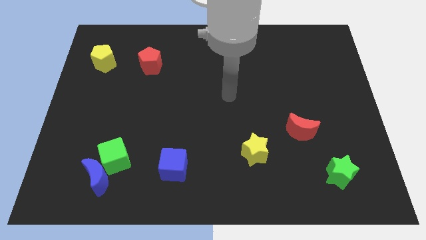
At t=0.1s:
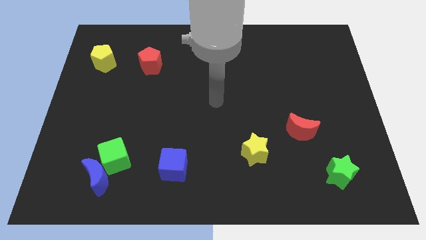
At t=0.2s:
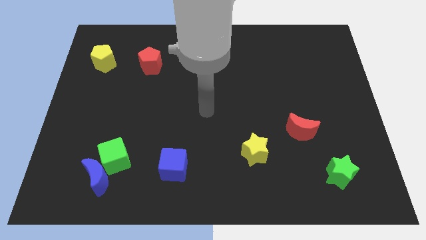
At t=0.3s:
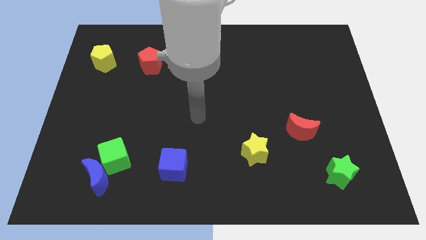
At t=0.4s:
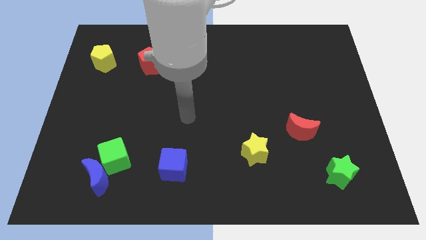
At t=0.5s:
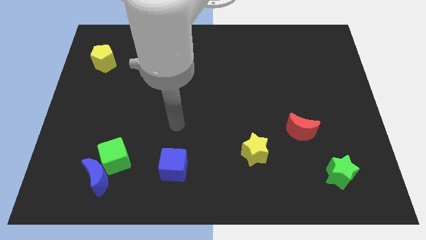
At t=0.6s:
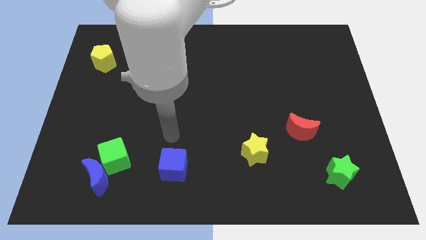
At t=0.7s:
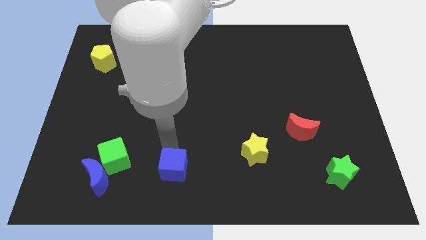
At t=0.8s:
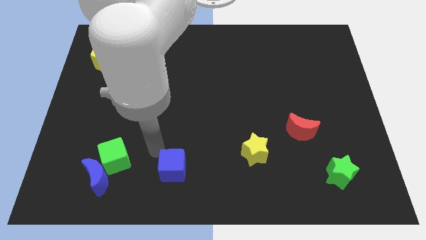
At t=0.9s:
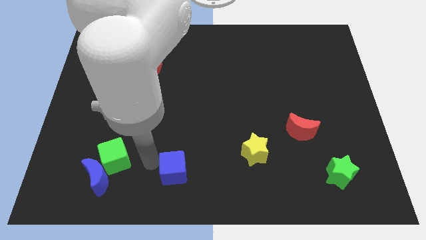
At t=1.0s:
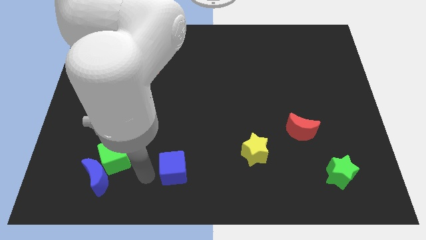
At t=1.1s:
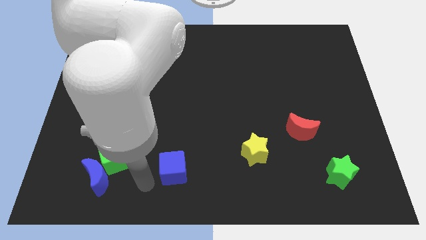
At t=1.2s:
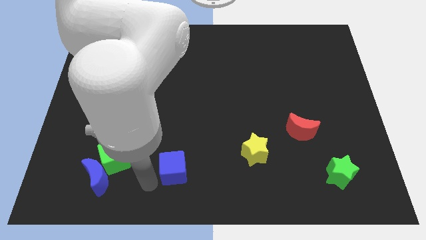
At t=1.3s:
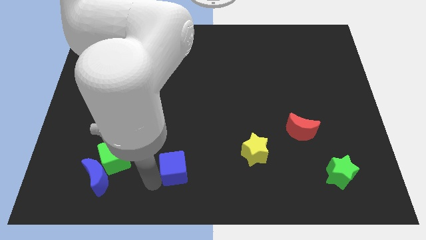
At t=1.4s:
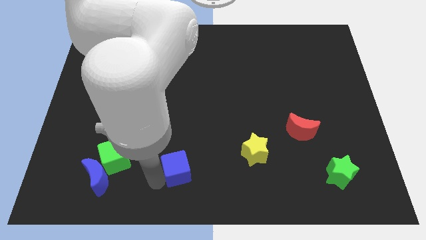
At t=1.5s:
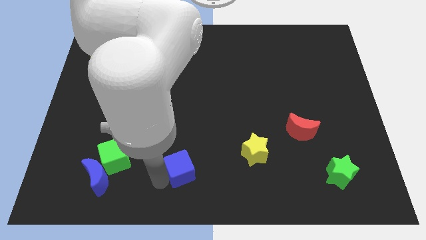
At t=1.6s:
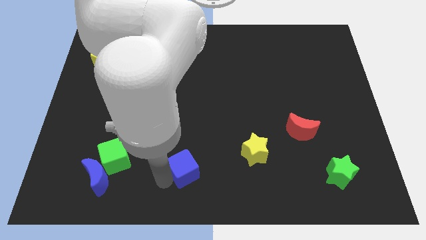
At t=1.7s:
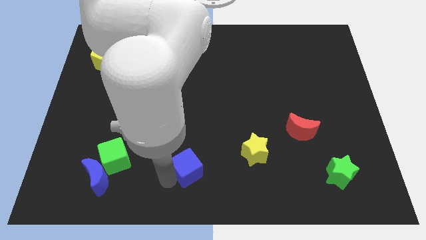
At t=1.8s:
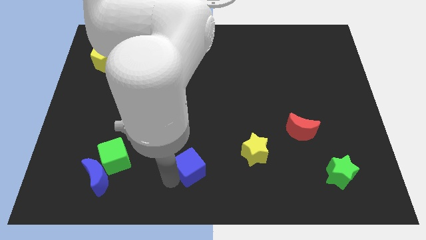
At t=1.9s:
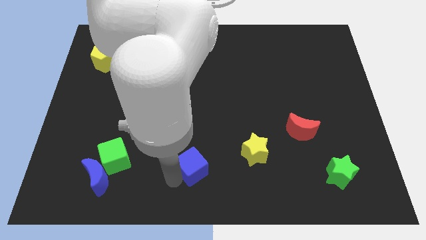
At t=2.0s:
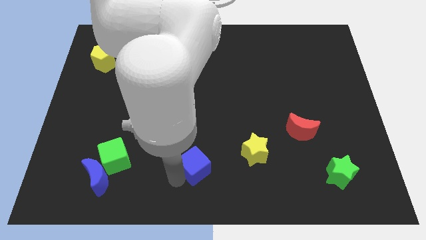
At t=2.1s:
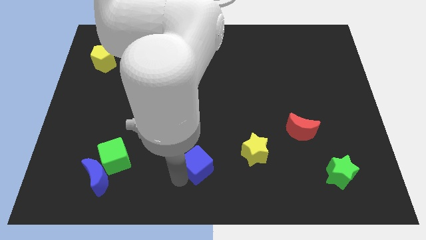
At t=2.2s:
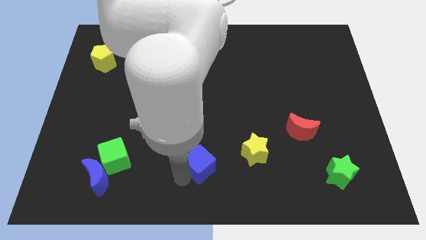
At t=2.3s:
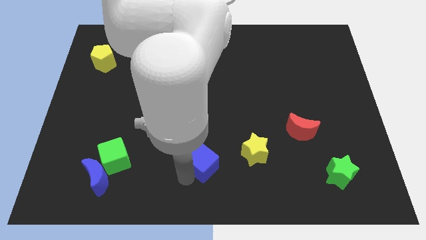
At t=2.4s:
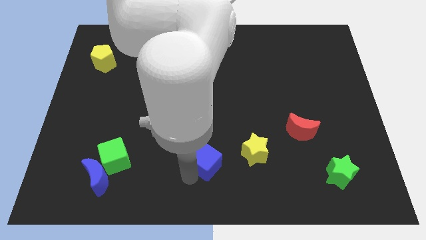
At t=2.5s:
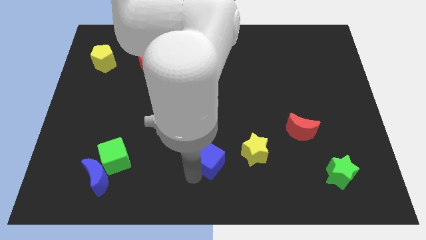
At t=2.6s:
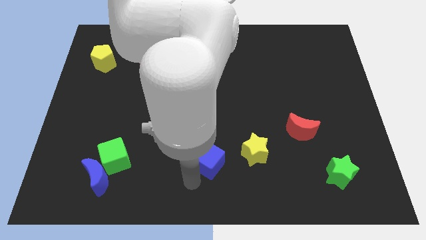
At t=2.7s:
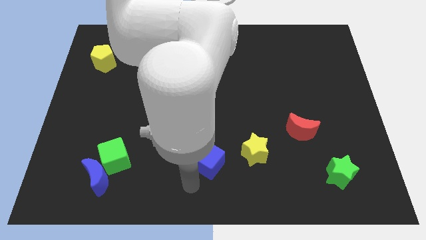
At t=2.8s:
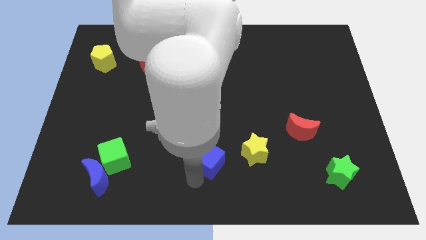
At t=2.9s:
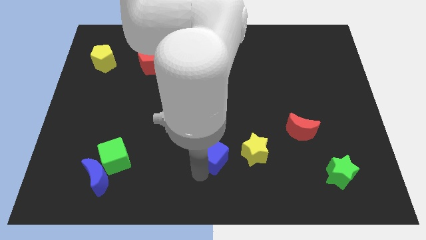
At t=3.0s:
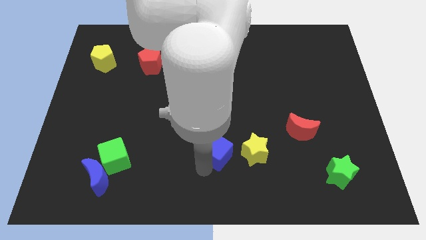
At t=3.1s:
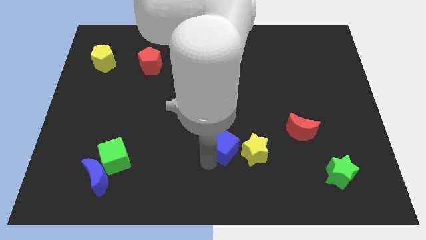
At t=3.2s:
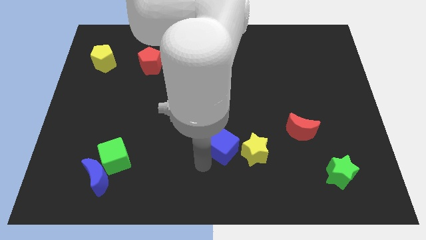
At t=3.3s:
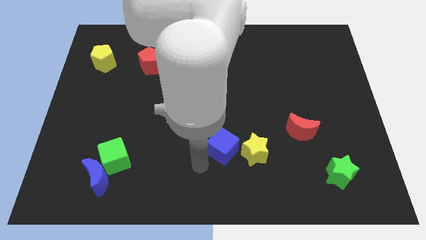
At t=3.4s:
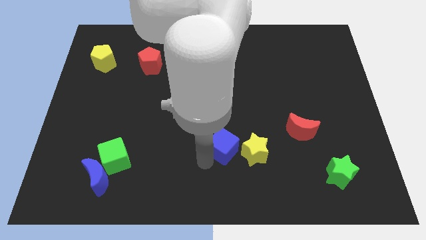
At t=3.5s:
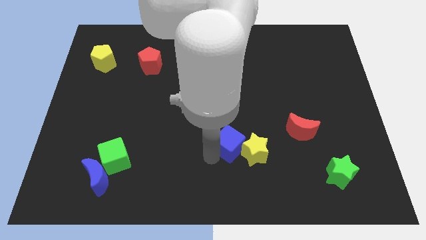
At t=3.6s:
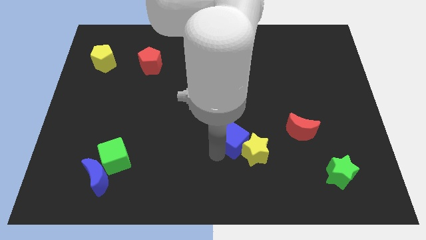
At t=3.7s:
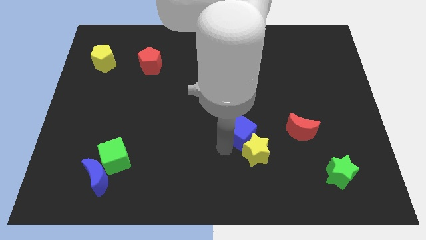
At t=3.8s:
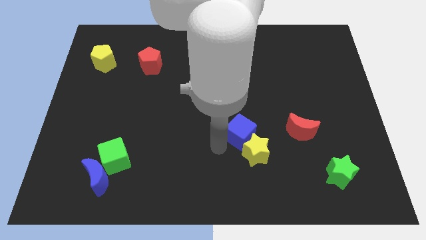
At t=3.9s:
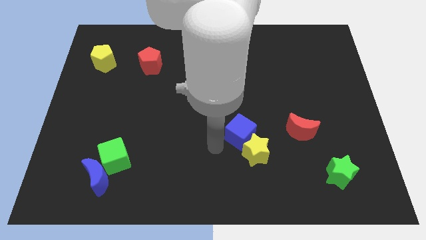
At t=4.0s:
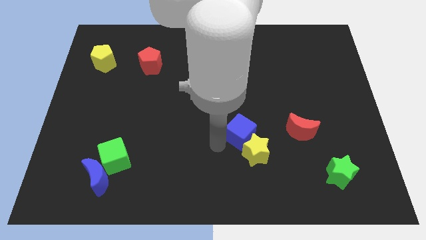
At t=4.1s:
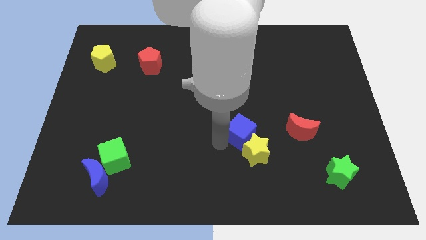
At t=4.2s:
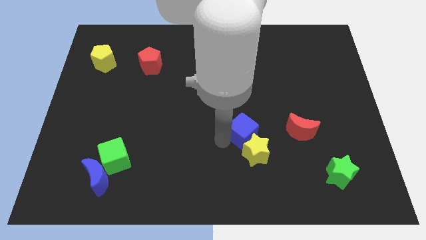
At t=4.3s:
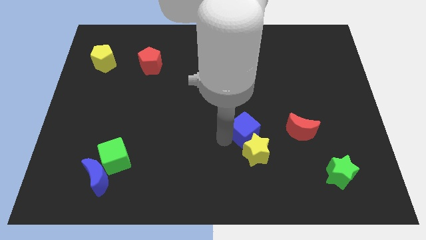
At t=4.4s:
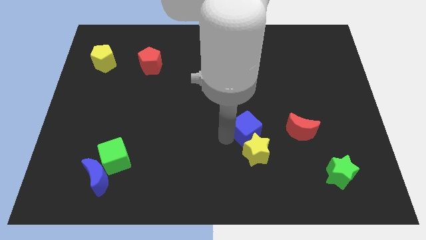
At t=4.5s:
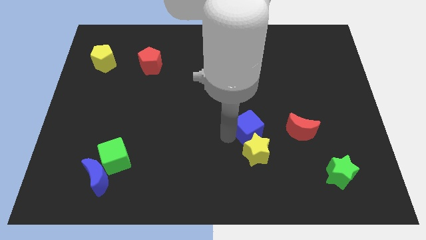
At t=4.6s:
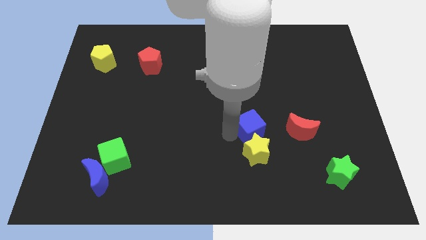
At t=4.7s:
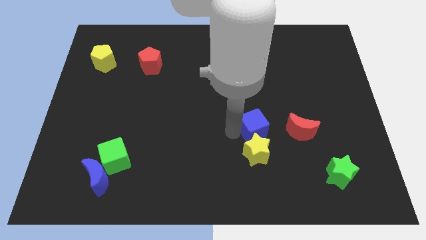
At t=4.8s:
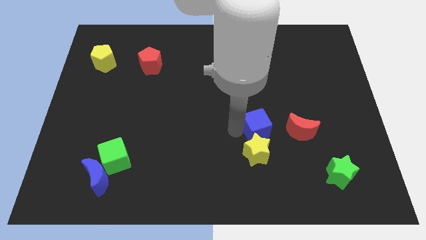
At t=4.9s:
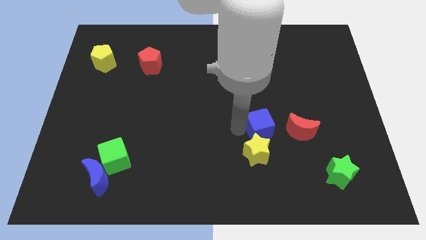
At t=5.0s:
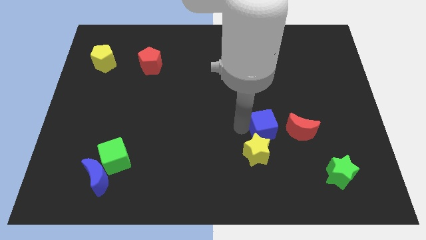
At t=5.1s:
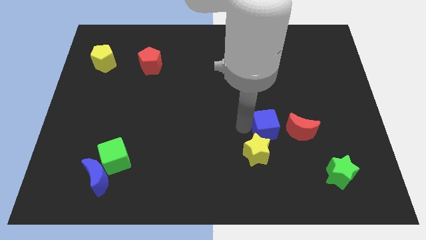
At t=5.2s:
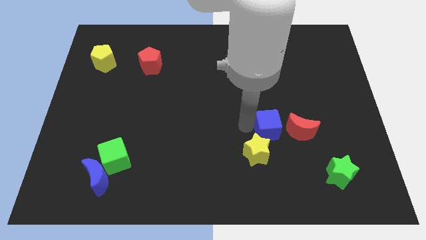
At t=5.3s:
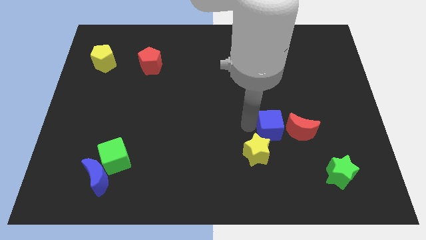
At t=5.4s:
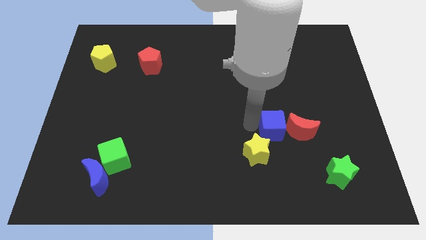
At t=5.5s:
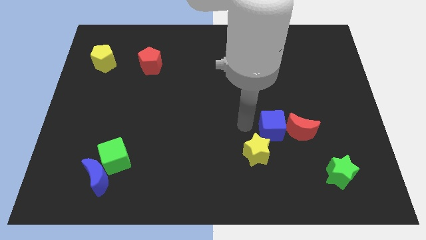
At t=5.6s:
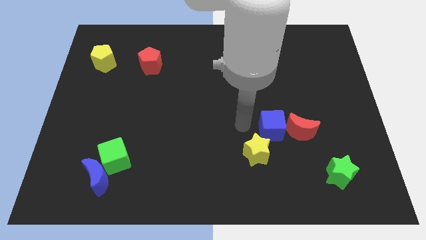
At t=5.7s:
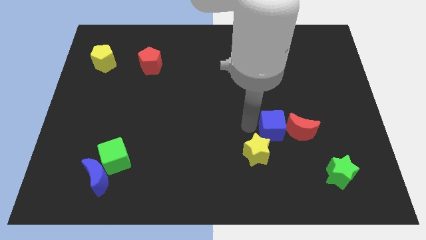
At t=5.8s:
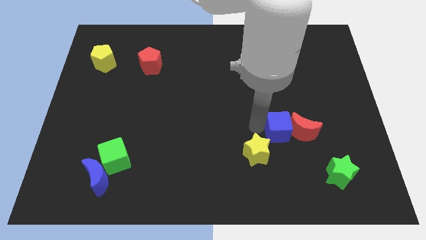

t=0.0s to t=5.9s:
move the blue cube next to the red moon

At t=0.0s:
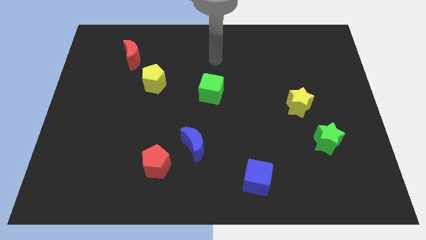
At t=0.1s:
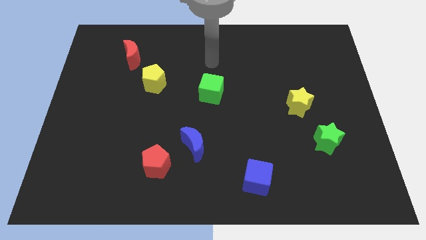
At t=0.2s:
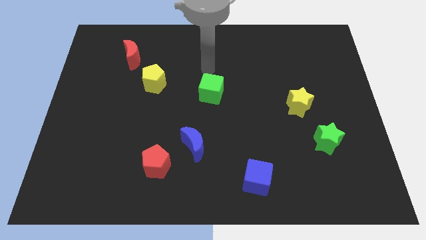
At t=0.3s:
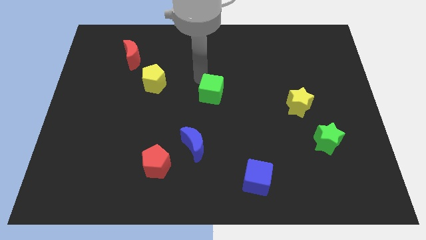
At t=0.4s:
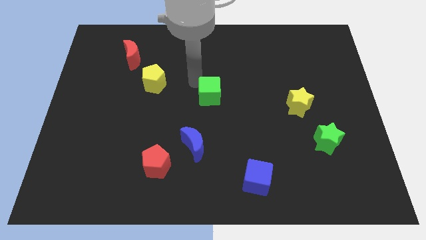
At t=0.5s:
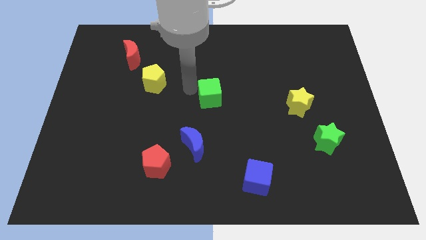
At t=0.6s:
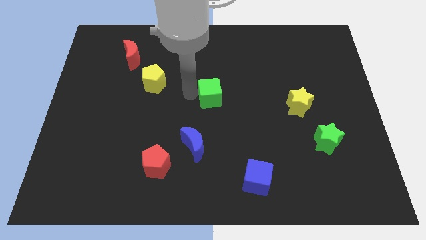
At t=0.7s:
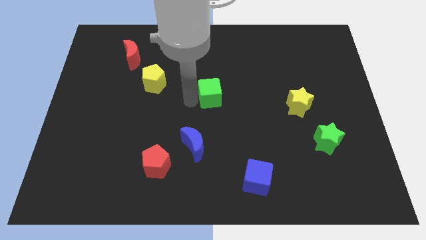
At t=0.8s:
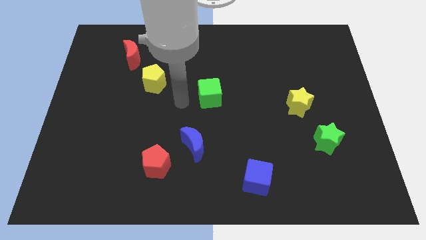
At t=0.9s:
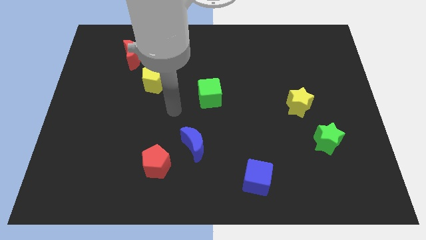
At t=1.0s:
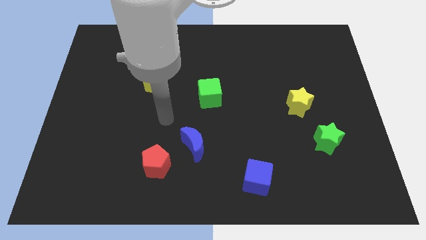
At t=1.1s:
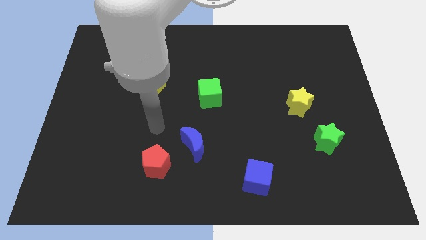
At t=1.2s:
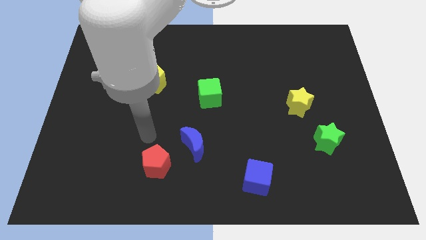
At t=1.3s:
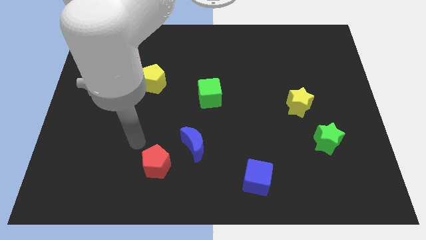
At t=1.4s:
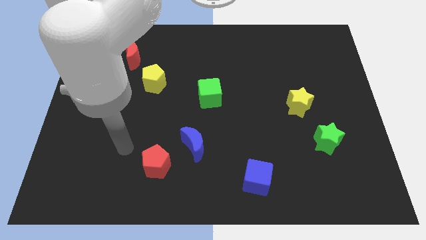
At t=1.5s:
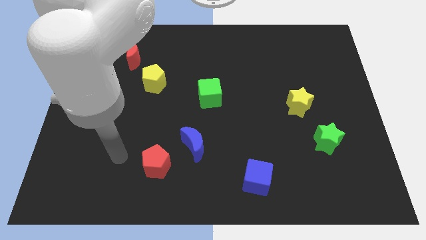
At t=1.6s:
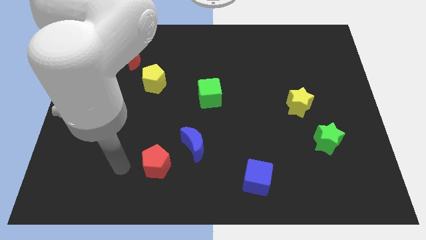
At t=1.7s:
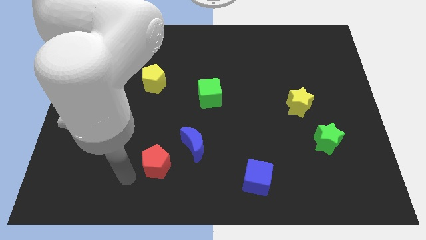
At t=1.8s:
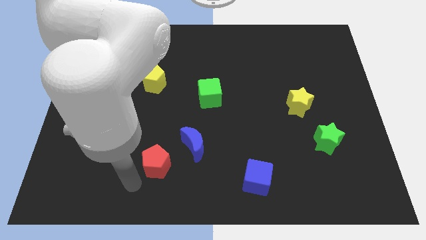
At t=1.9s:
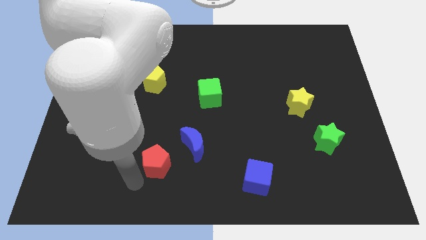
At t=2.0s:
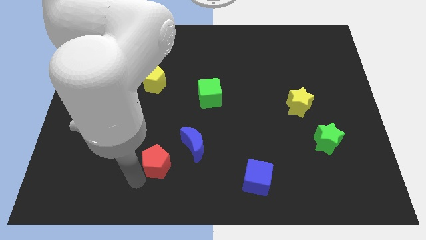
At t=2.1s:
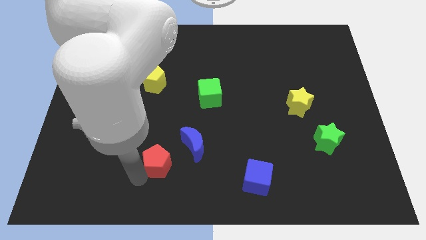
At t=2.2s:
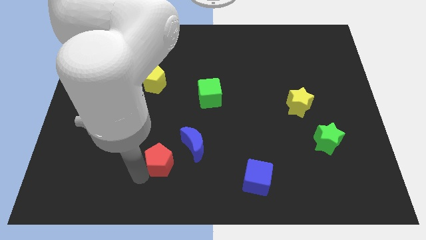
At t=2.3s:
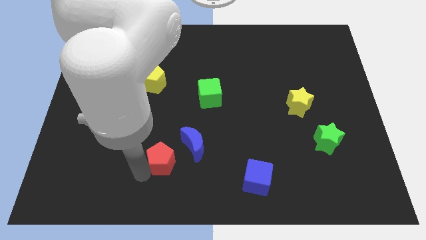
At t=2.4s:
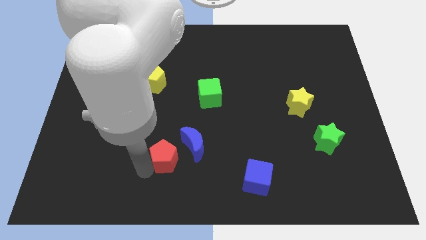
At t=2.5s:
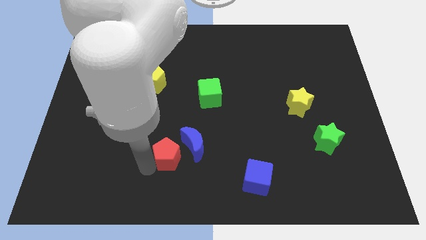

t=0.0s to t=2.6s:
push the red pentagon to the blue moon
